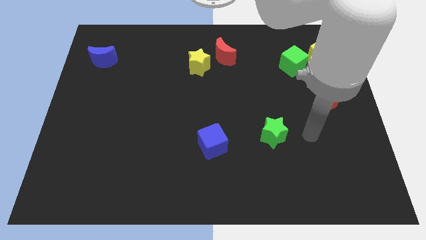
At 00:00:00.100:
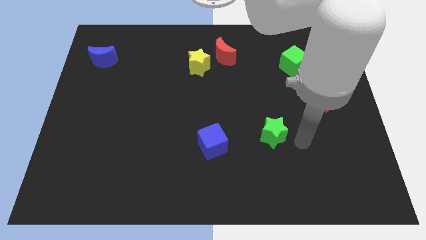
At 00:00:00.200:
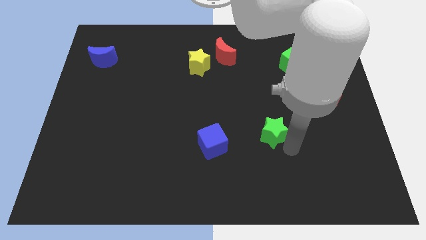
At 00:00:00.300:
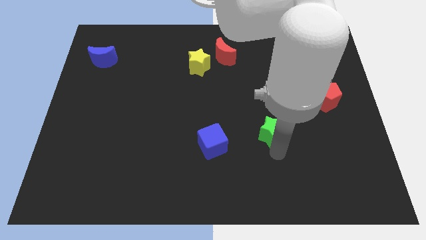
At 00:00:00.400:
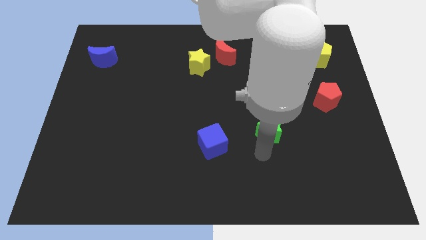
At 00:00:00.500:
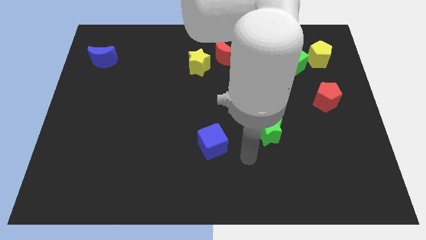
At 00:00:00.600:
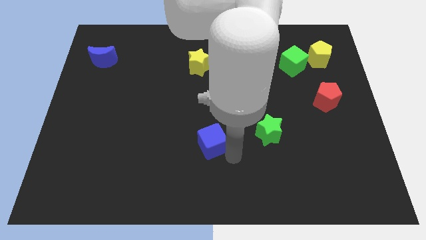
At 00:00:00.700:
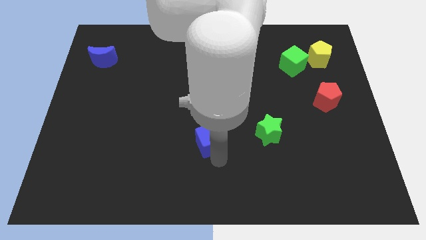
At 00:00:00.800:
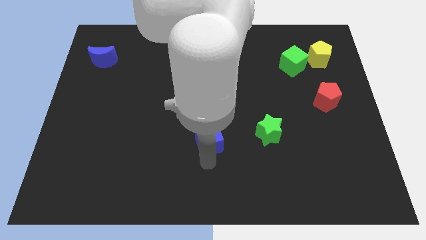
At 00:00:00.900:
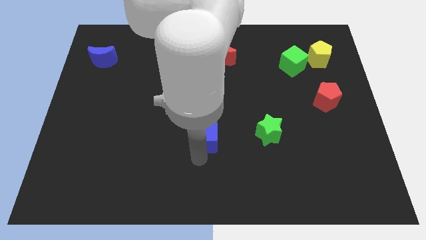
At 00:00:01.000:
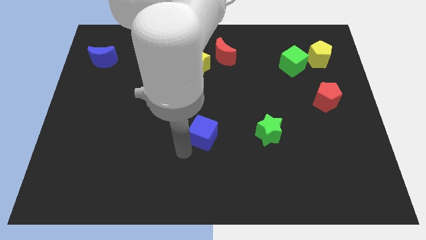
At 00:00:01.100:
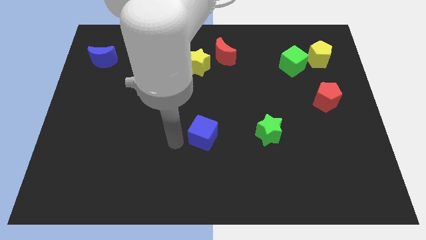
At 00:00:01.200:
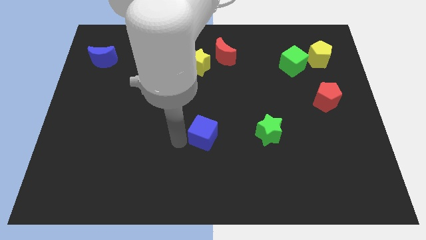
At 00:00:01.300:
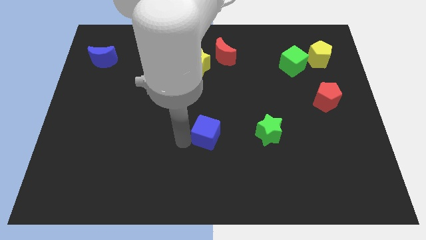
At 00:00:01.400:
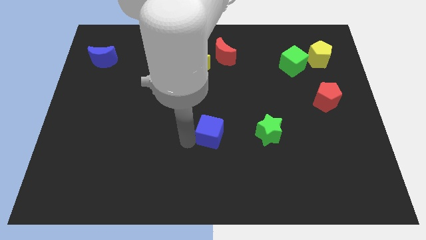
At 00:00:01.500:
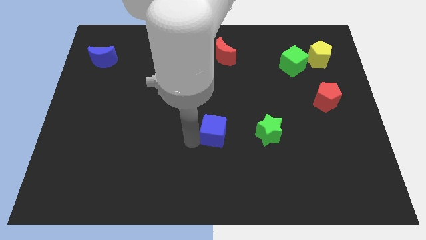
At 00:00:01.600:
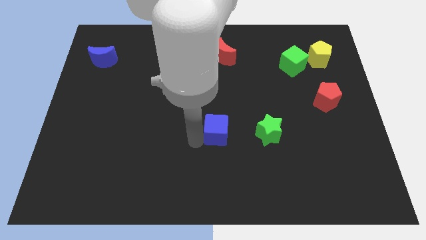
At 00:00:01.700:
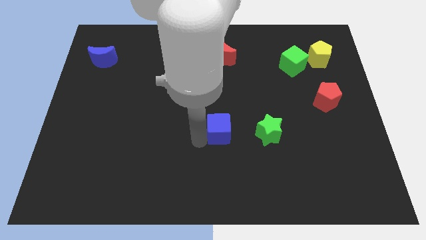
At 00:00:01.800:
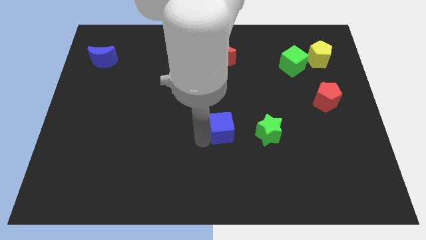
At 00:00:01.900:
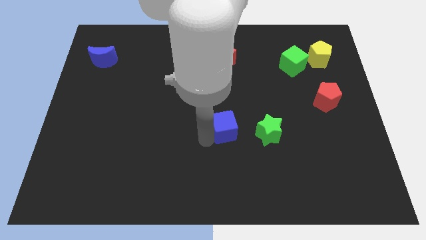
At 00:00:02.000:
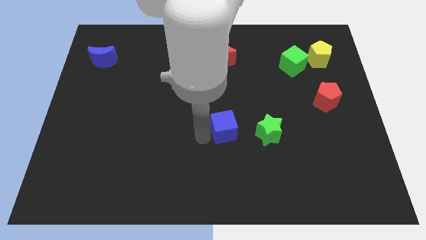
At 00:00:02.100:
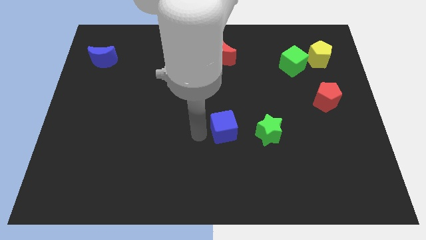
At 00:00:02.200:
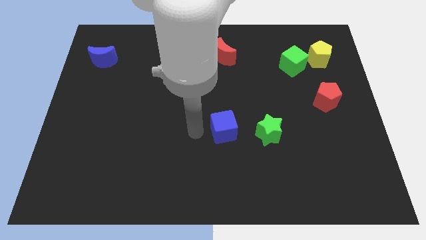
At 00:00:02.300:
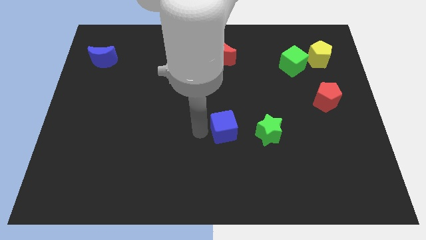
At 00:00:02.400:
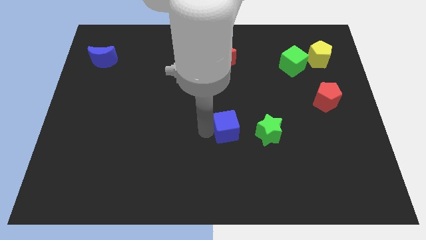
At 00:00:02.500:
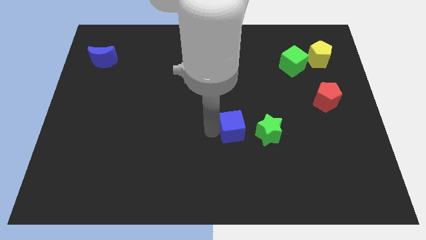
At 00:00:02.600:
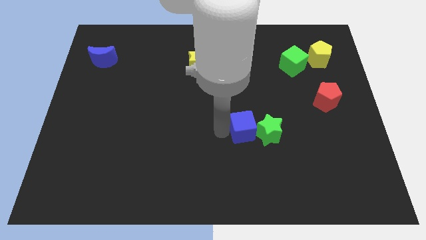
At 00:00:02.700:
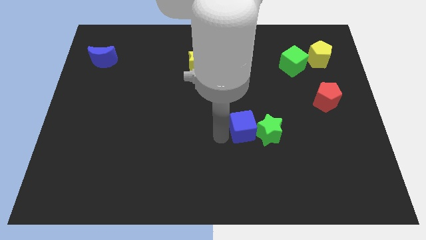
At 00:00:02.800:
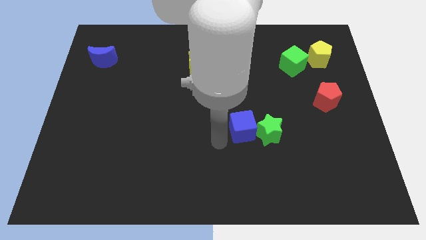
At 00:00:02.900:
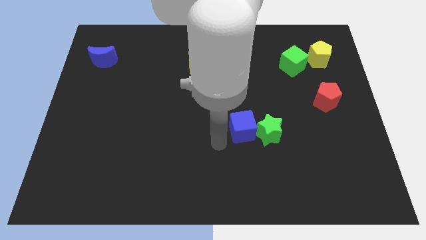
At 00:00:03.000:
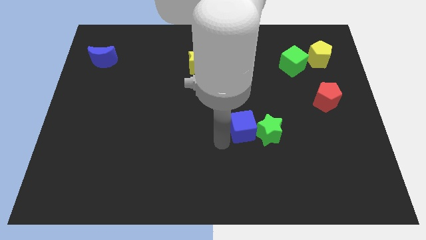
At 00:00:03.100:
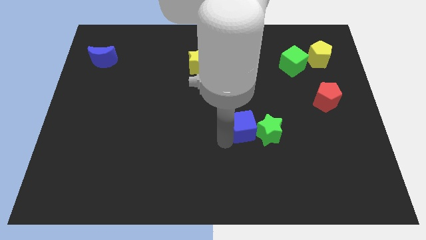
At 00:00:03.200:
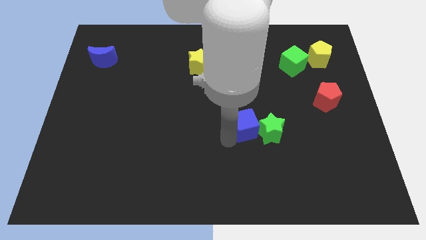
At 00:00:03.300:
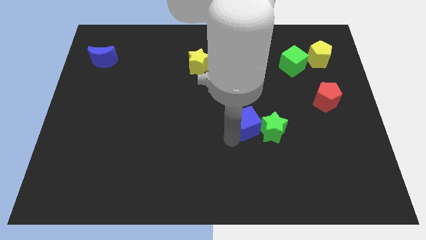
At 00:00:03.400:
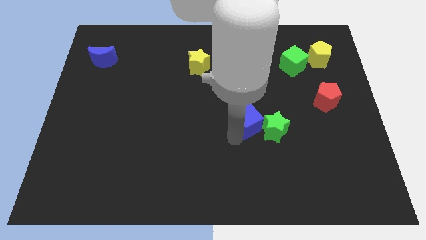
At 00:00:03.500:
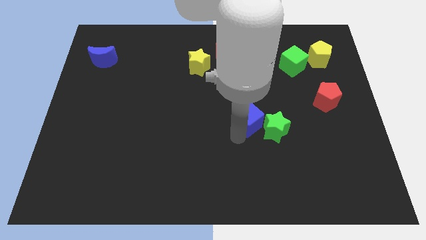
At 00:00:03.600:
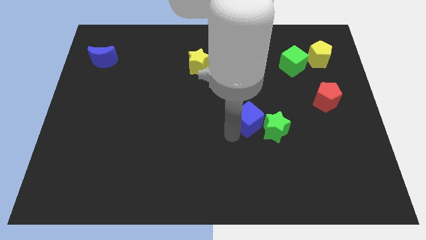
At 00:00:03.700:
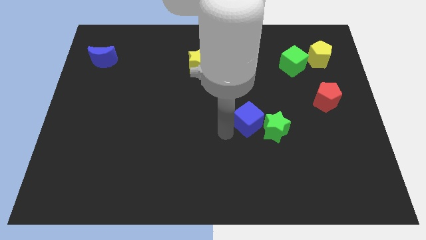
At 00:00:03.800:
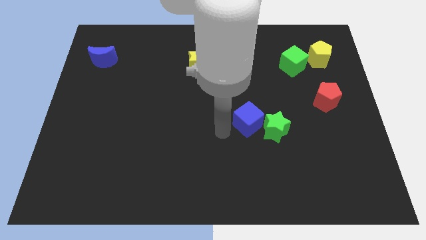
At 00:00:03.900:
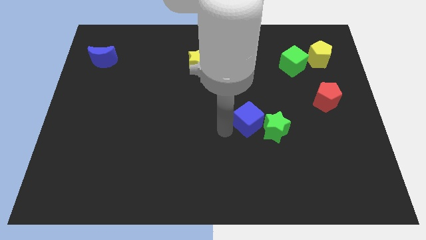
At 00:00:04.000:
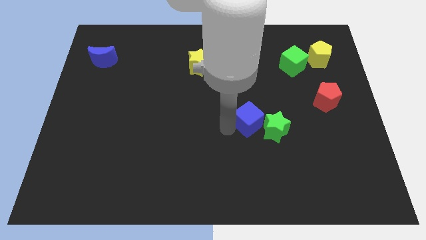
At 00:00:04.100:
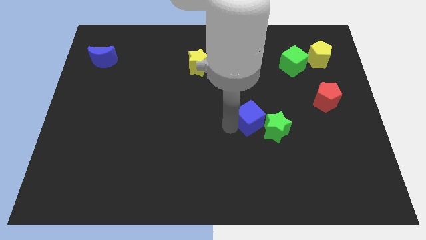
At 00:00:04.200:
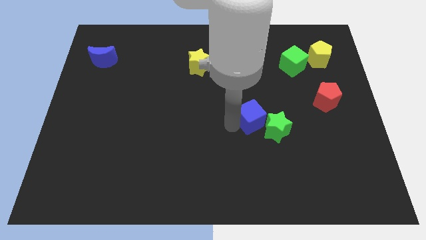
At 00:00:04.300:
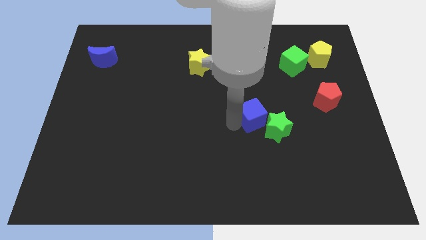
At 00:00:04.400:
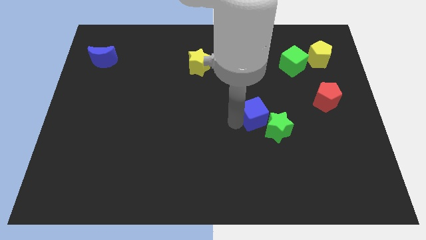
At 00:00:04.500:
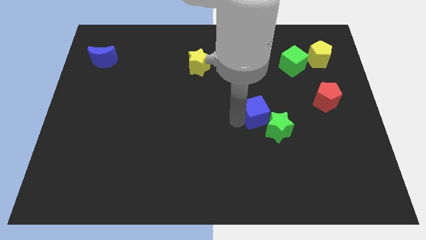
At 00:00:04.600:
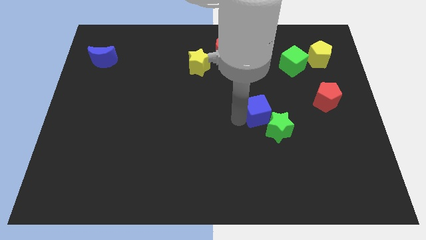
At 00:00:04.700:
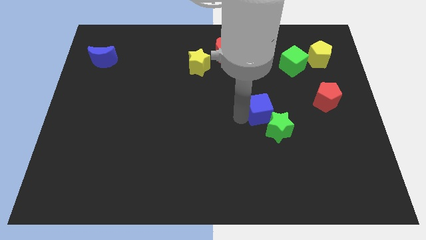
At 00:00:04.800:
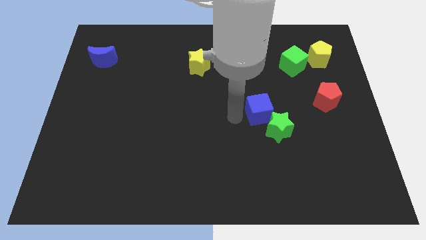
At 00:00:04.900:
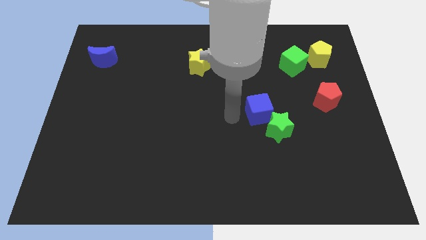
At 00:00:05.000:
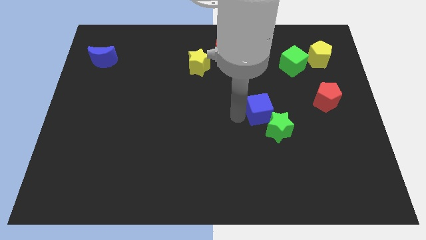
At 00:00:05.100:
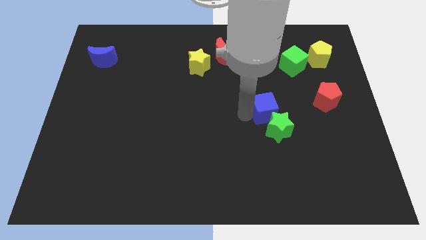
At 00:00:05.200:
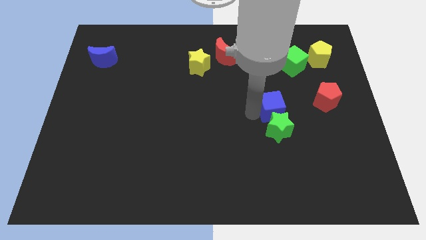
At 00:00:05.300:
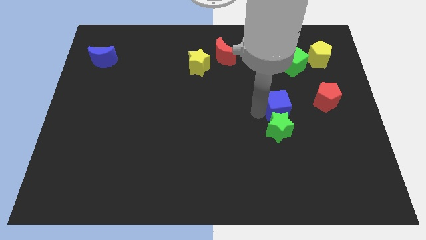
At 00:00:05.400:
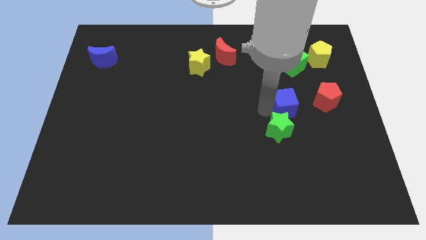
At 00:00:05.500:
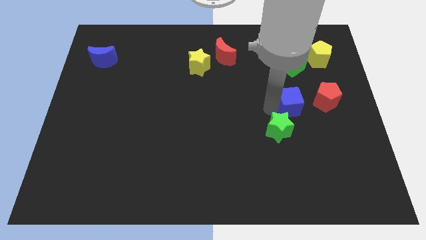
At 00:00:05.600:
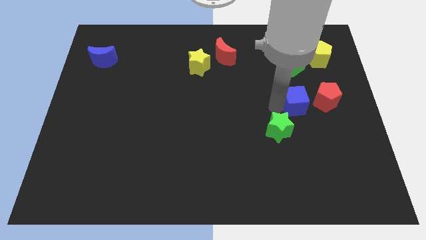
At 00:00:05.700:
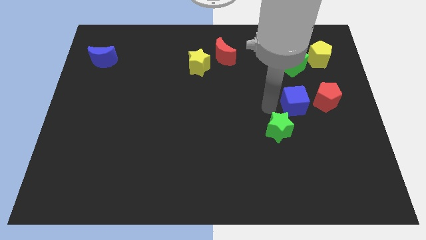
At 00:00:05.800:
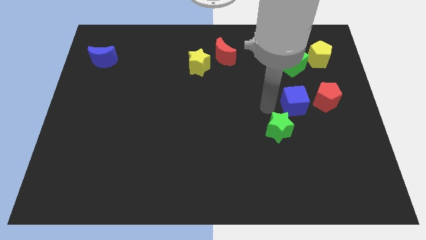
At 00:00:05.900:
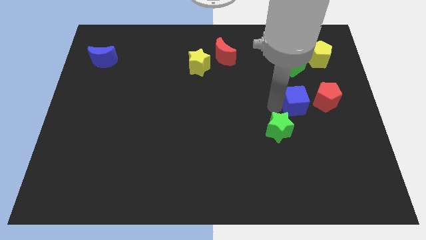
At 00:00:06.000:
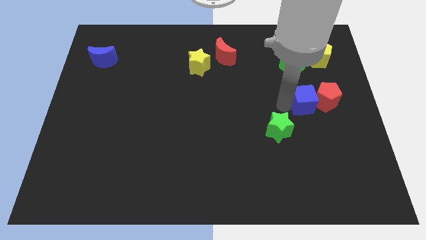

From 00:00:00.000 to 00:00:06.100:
move the blue cube close to the red pentagon

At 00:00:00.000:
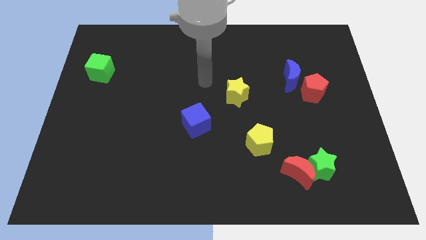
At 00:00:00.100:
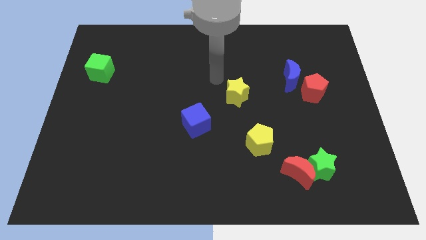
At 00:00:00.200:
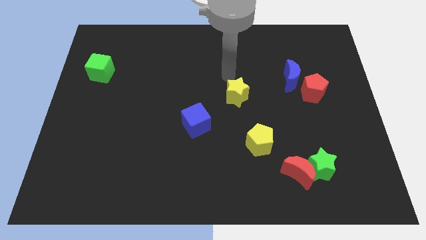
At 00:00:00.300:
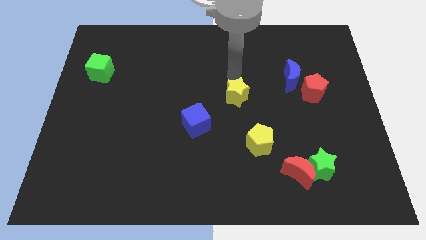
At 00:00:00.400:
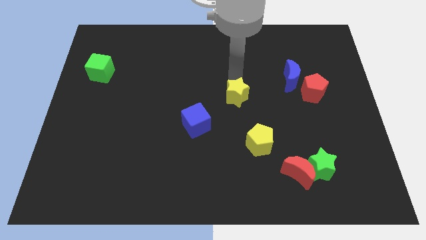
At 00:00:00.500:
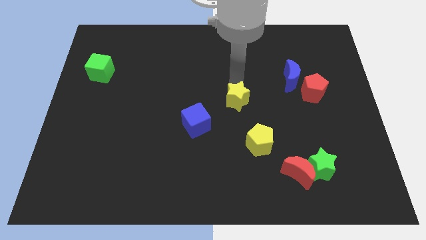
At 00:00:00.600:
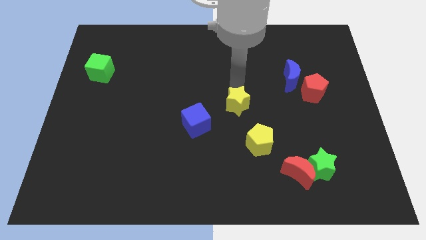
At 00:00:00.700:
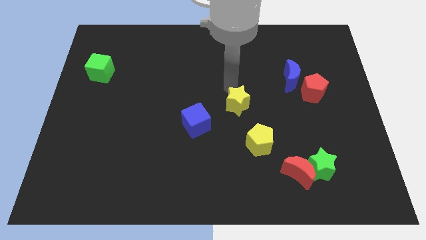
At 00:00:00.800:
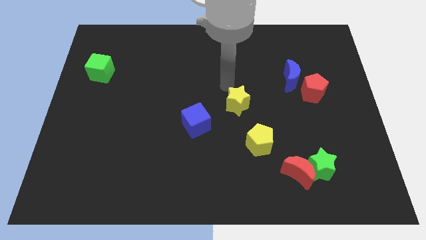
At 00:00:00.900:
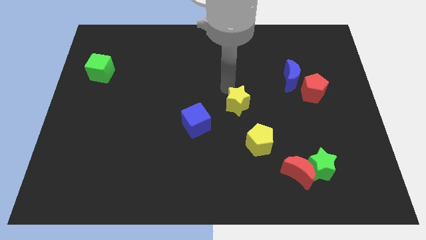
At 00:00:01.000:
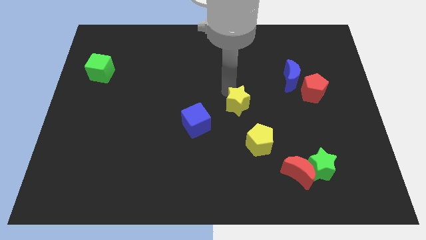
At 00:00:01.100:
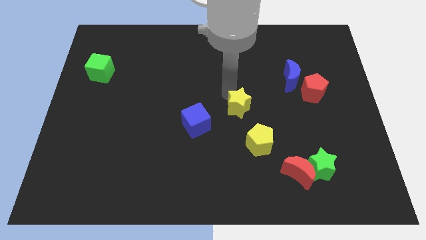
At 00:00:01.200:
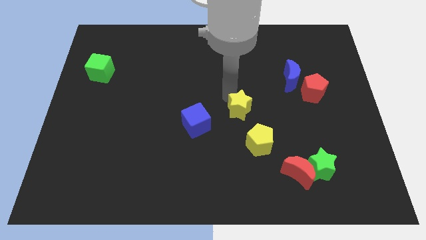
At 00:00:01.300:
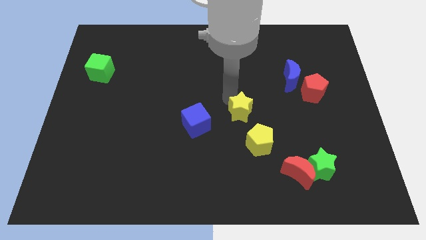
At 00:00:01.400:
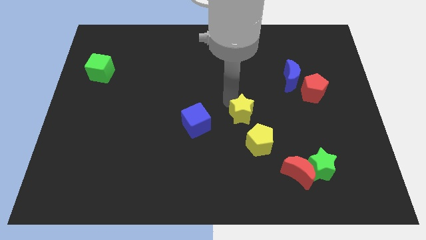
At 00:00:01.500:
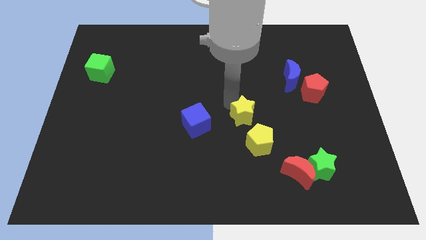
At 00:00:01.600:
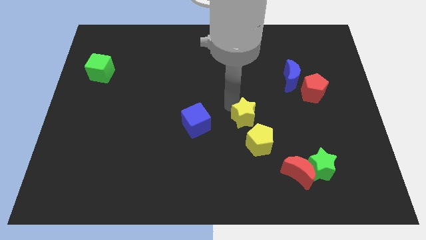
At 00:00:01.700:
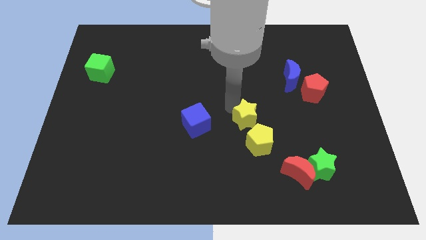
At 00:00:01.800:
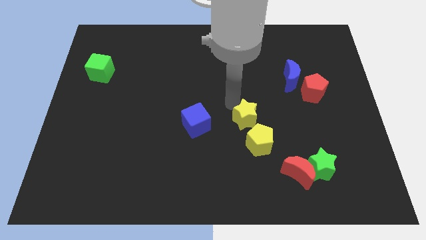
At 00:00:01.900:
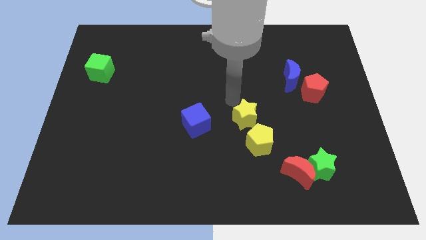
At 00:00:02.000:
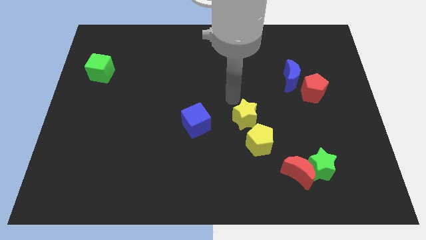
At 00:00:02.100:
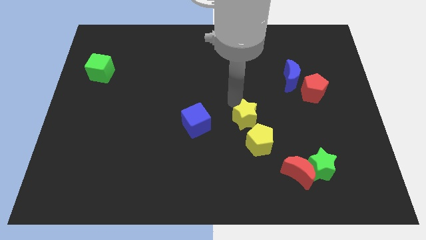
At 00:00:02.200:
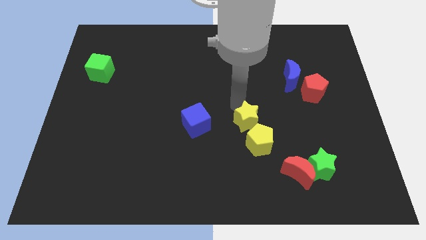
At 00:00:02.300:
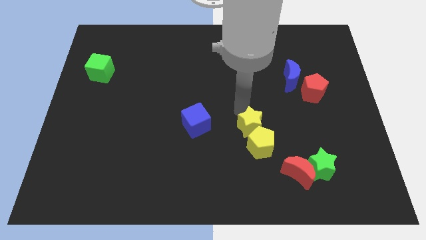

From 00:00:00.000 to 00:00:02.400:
slide the yellow star to the yellow pentagon
